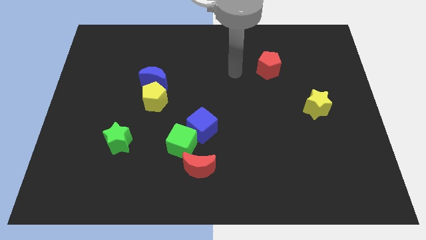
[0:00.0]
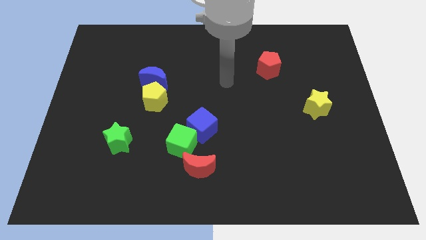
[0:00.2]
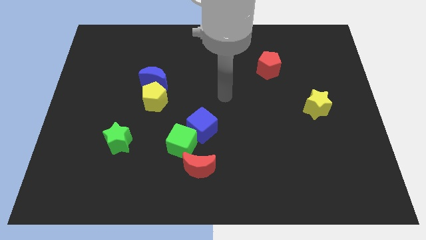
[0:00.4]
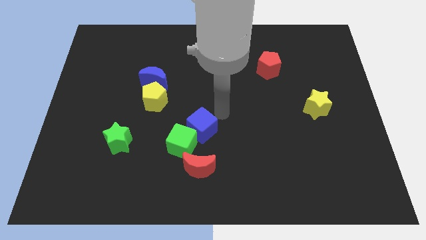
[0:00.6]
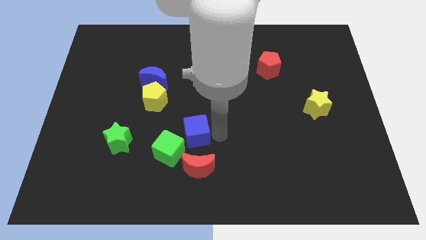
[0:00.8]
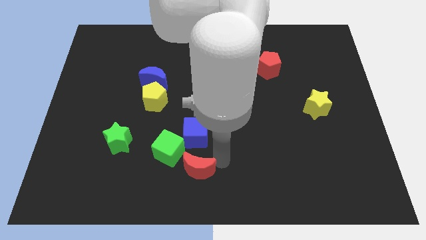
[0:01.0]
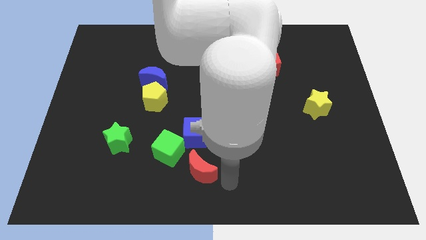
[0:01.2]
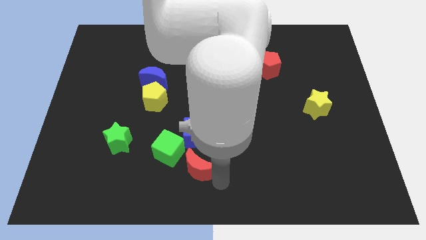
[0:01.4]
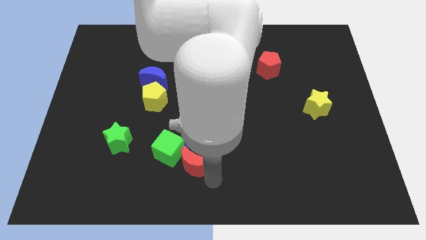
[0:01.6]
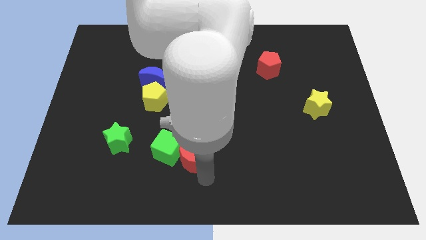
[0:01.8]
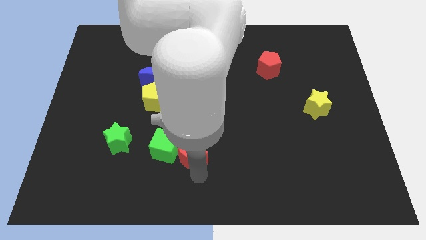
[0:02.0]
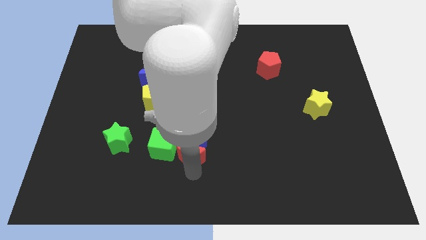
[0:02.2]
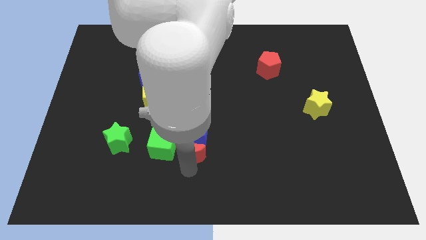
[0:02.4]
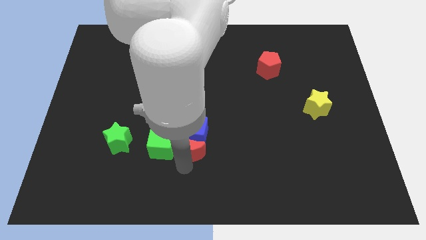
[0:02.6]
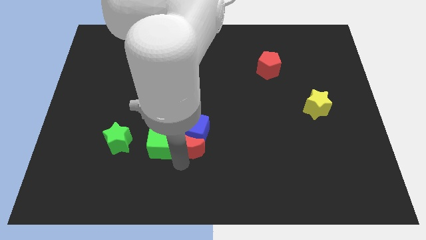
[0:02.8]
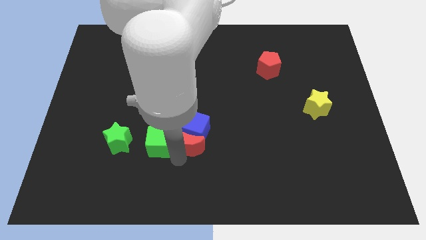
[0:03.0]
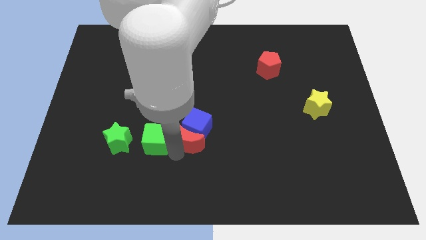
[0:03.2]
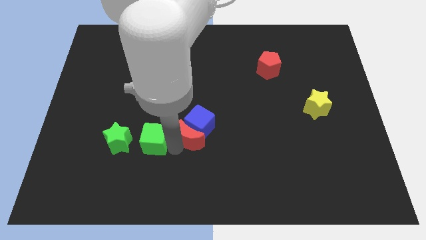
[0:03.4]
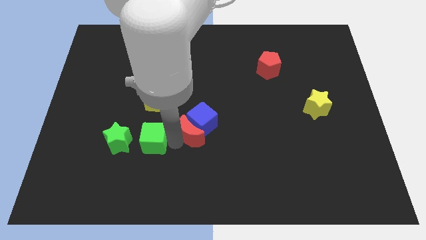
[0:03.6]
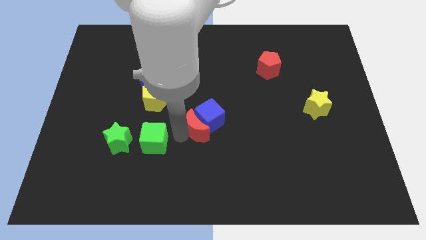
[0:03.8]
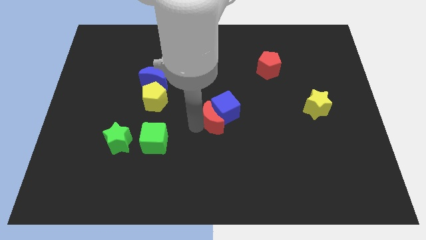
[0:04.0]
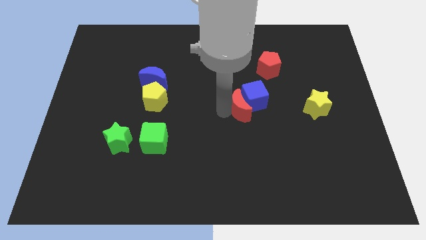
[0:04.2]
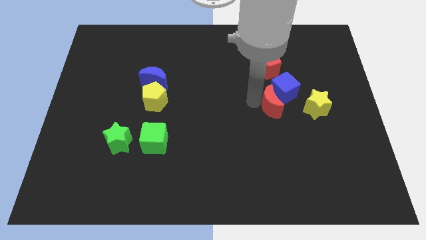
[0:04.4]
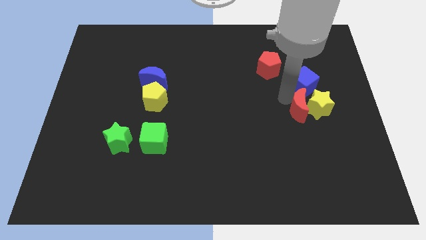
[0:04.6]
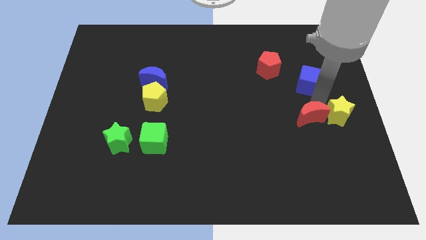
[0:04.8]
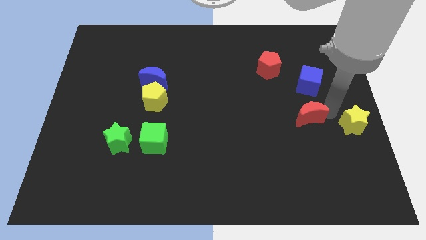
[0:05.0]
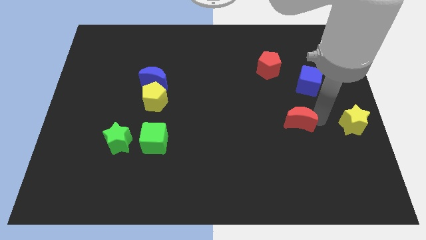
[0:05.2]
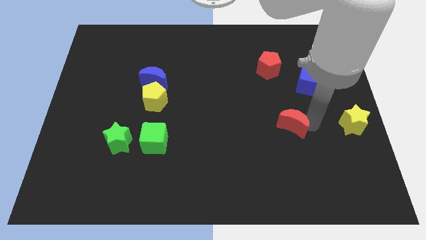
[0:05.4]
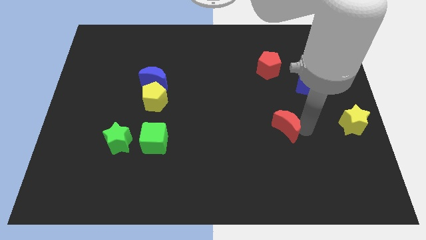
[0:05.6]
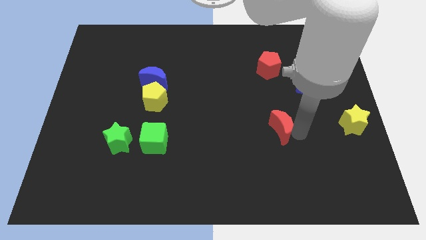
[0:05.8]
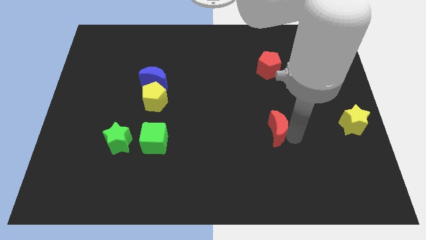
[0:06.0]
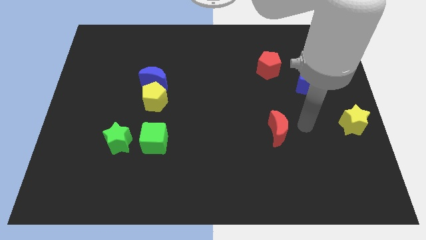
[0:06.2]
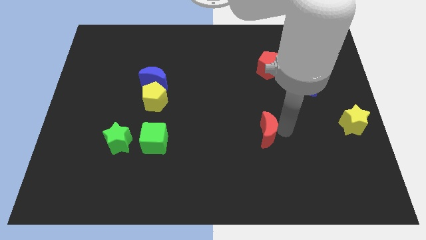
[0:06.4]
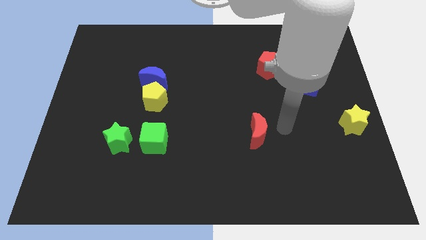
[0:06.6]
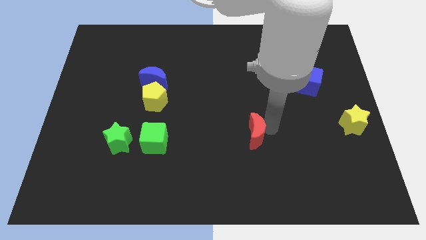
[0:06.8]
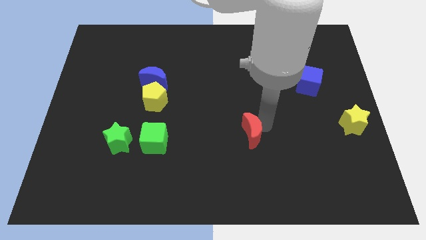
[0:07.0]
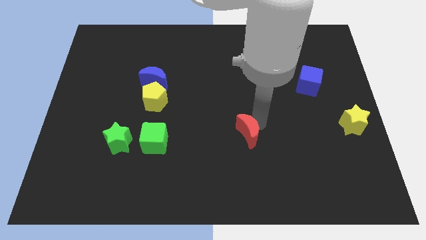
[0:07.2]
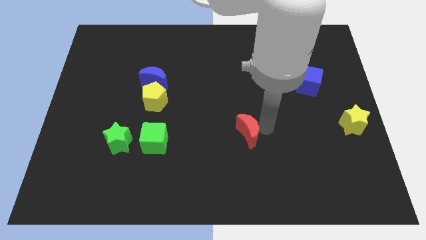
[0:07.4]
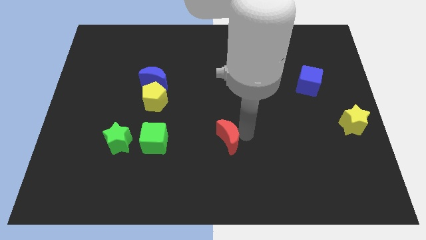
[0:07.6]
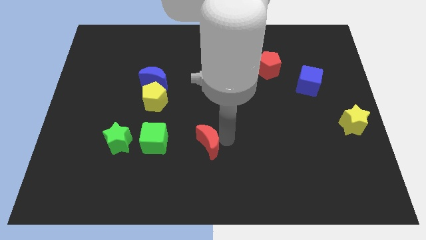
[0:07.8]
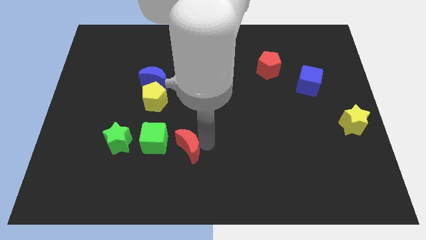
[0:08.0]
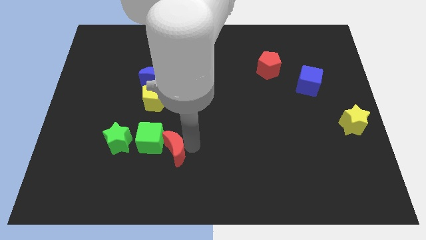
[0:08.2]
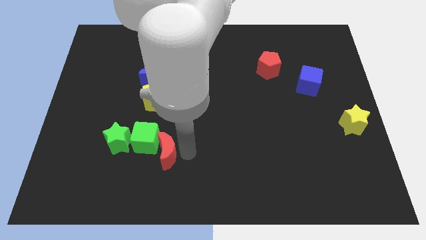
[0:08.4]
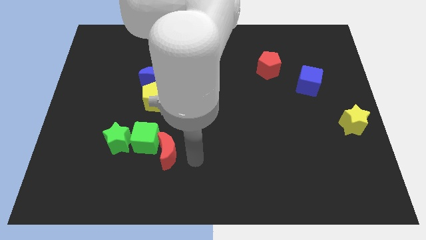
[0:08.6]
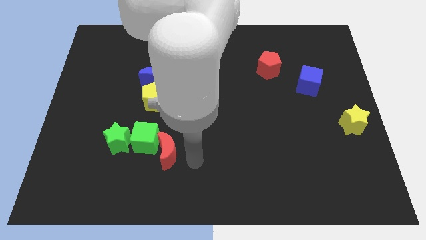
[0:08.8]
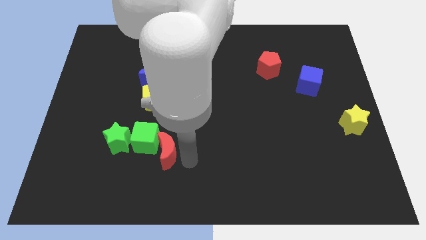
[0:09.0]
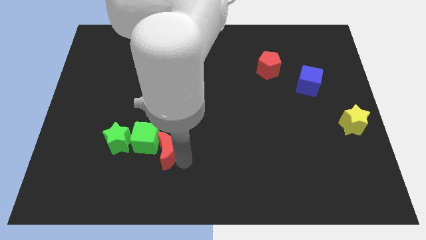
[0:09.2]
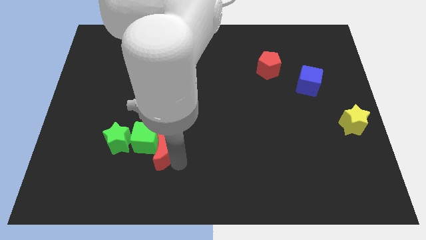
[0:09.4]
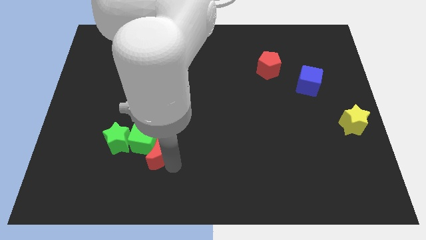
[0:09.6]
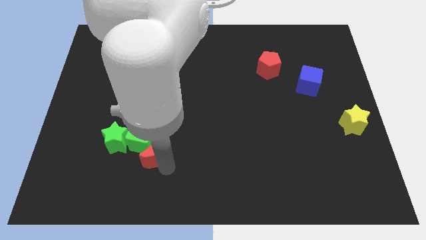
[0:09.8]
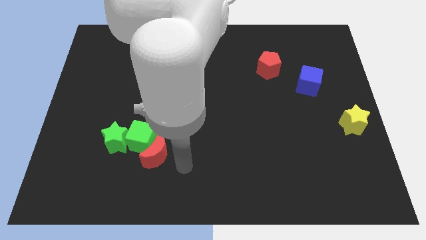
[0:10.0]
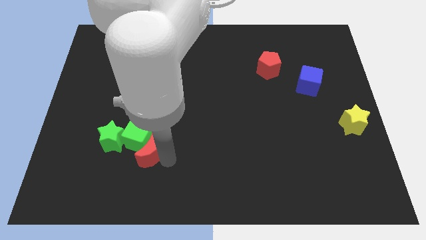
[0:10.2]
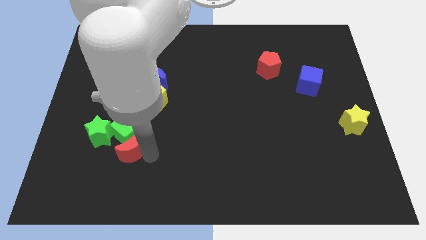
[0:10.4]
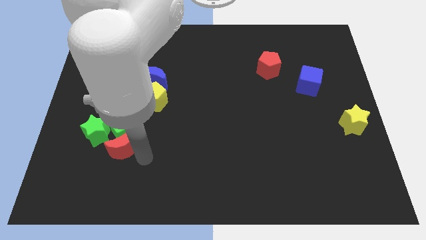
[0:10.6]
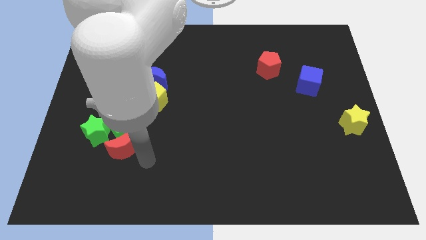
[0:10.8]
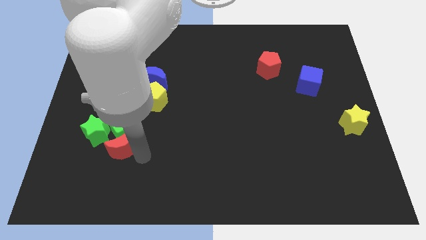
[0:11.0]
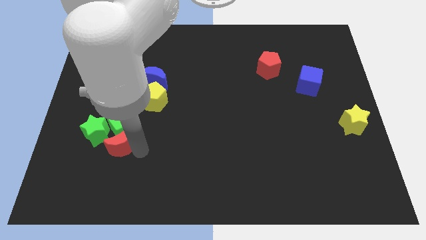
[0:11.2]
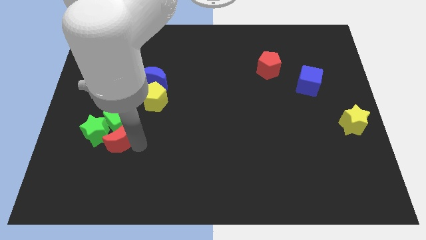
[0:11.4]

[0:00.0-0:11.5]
put the red moon towards the green star

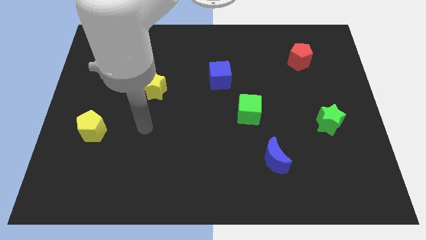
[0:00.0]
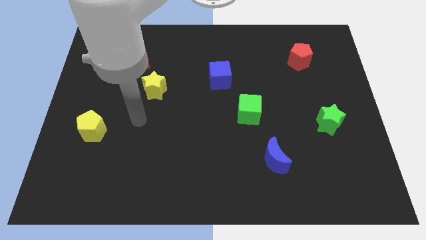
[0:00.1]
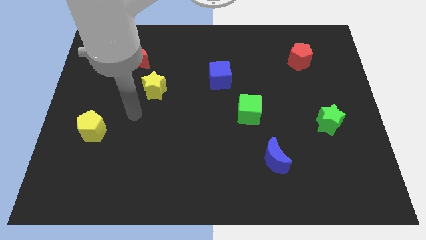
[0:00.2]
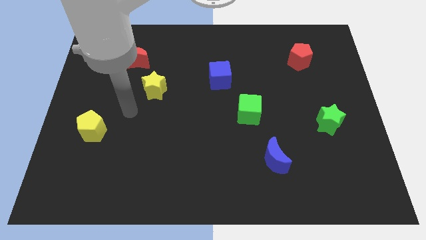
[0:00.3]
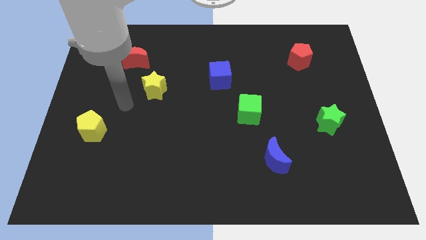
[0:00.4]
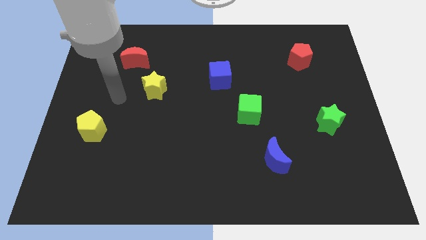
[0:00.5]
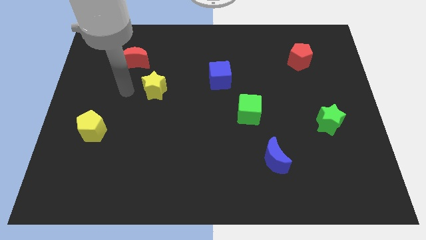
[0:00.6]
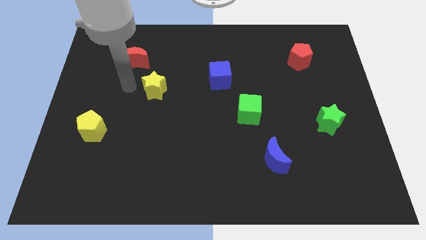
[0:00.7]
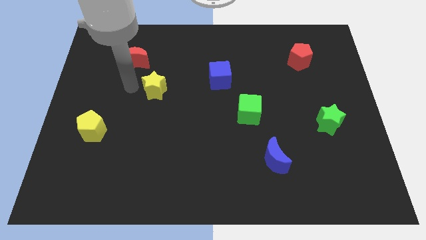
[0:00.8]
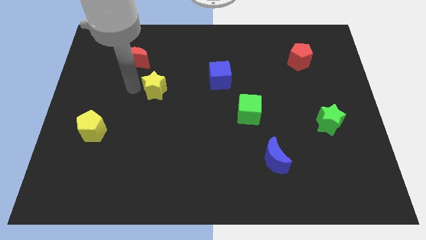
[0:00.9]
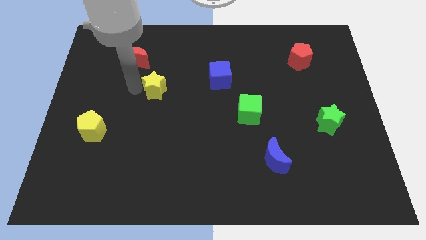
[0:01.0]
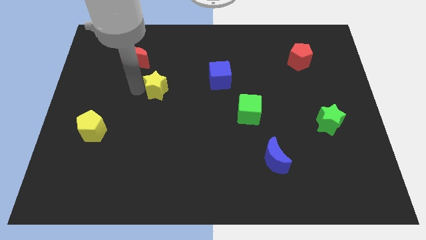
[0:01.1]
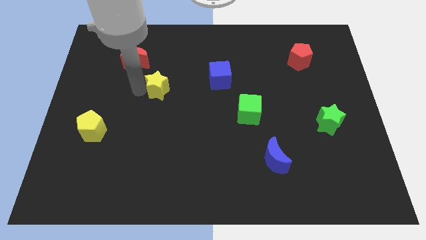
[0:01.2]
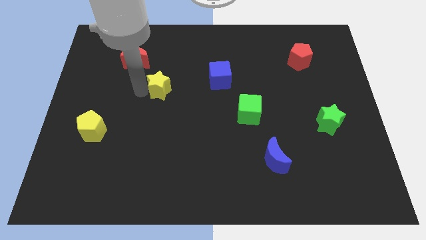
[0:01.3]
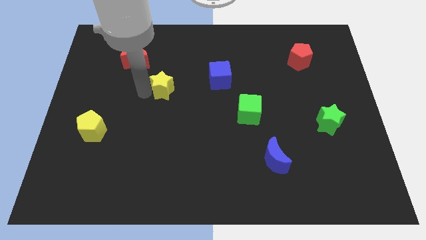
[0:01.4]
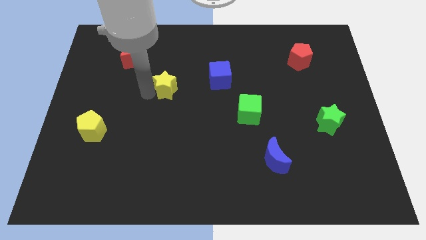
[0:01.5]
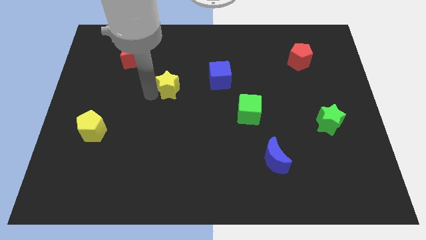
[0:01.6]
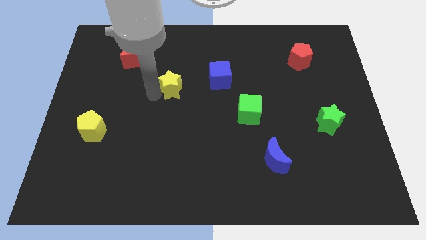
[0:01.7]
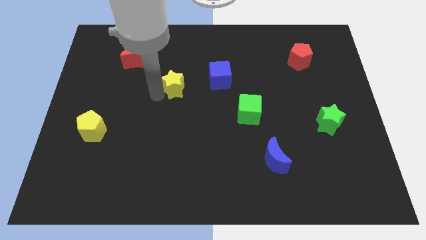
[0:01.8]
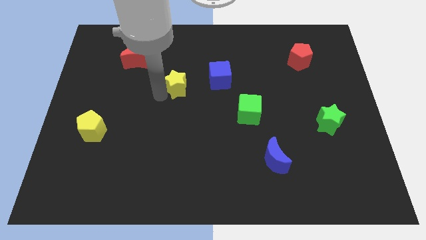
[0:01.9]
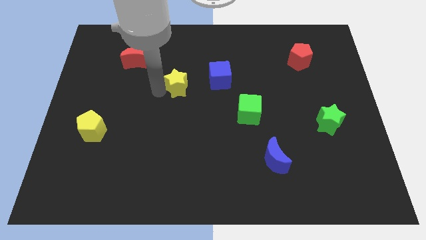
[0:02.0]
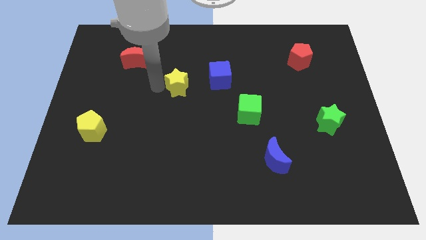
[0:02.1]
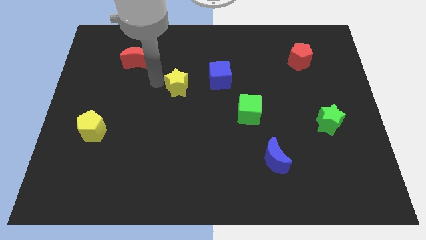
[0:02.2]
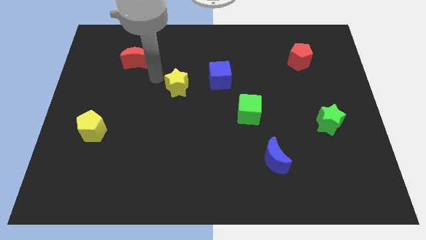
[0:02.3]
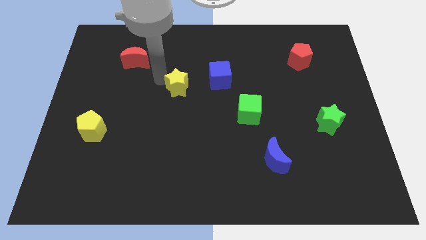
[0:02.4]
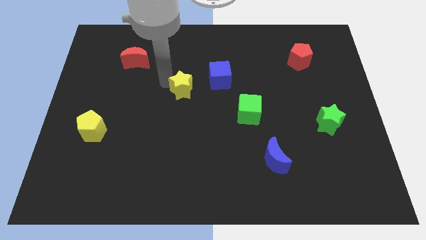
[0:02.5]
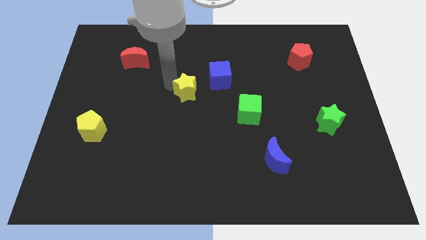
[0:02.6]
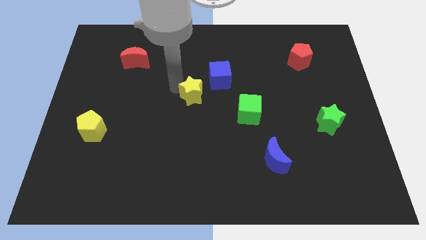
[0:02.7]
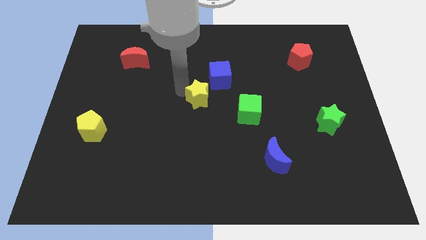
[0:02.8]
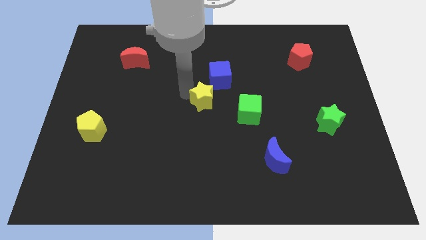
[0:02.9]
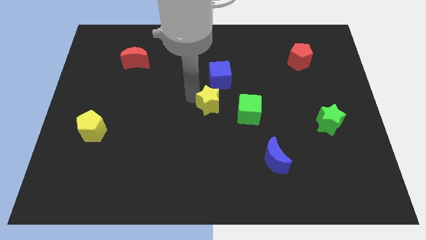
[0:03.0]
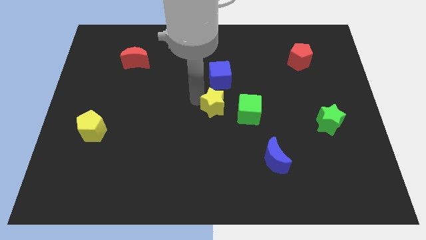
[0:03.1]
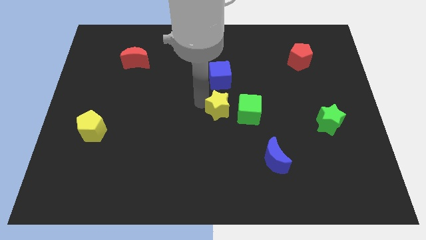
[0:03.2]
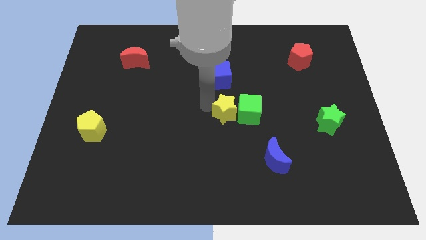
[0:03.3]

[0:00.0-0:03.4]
put the yellow star next to the green cube
